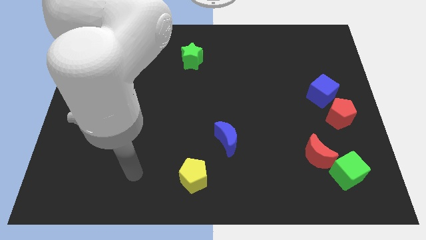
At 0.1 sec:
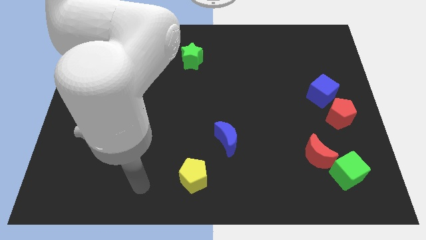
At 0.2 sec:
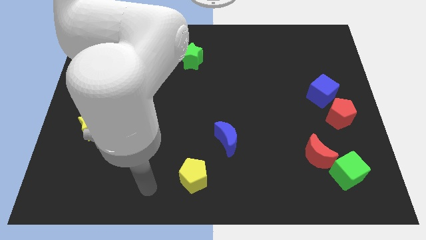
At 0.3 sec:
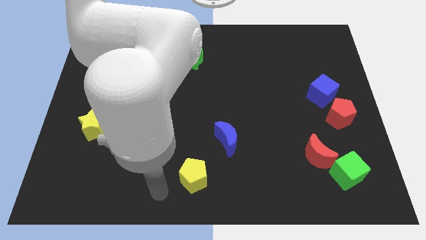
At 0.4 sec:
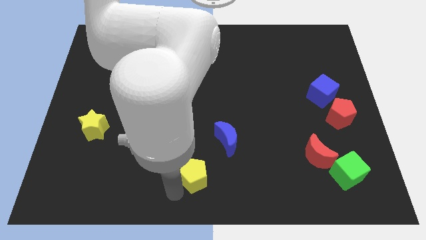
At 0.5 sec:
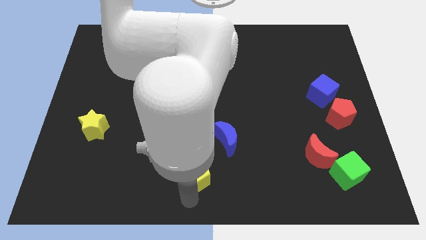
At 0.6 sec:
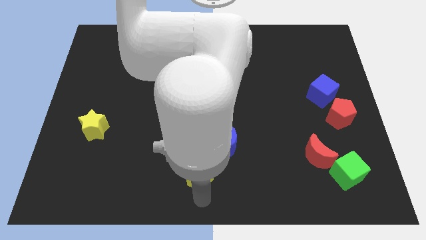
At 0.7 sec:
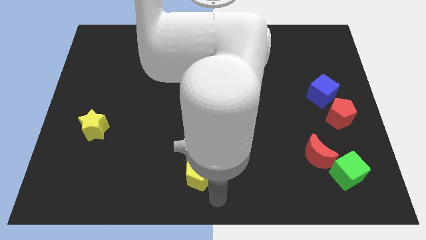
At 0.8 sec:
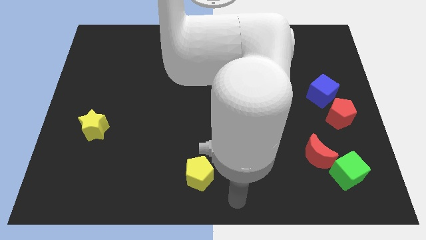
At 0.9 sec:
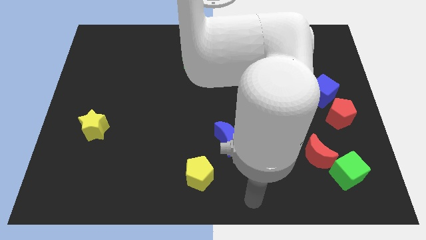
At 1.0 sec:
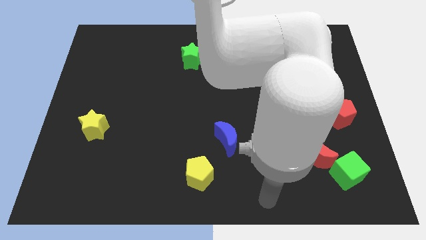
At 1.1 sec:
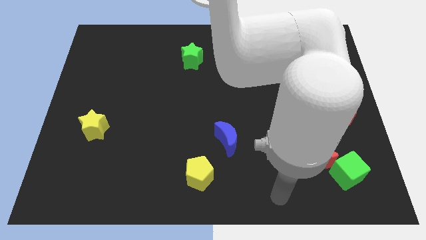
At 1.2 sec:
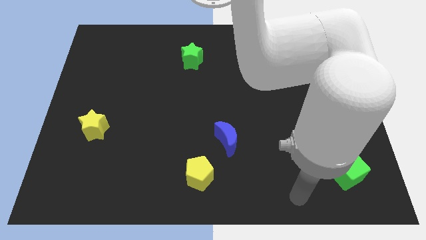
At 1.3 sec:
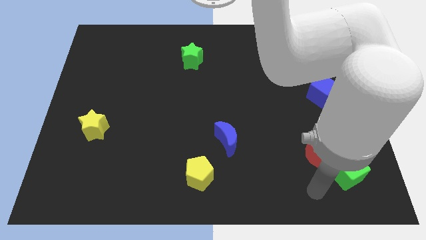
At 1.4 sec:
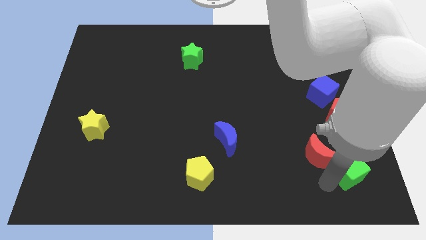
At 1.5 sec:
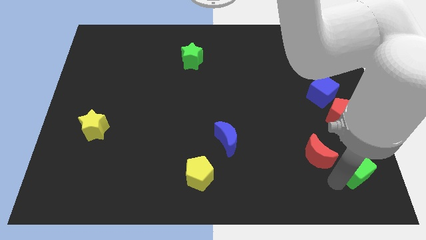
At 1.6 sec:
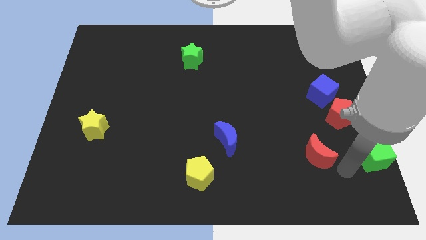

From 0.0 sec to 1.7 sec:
pull the red moon apart from the green cube

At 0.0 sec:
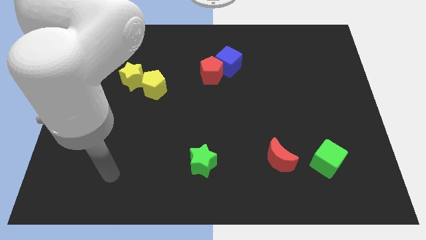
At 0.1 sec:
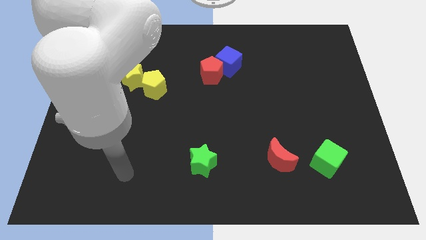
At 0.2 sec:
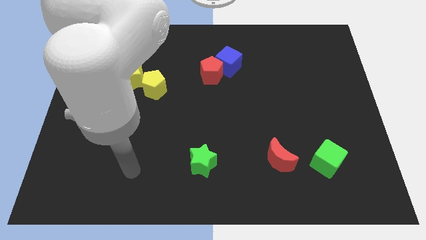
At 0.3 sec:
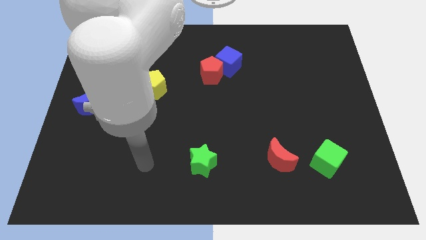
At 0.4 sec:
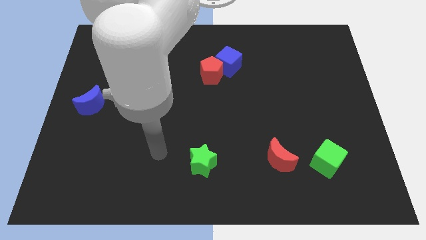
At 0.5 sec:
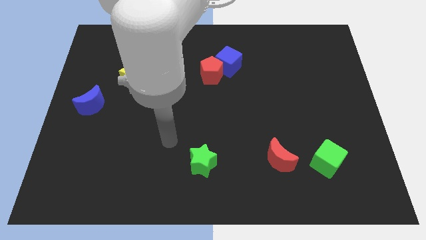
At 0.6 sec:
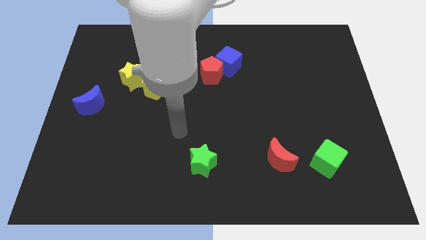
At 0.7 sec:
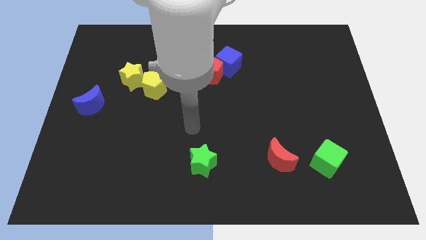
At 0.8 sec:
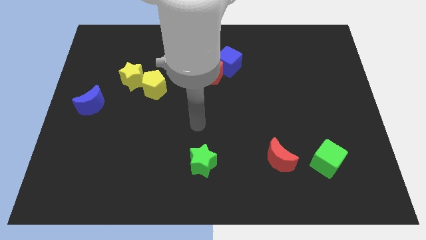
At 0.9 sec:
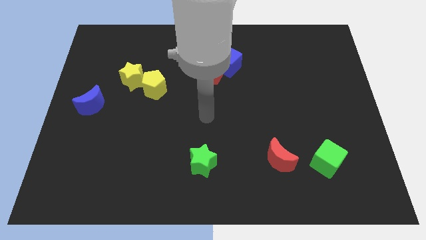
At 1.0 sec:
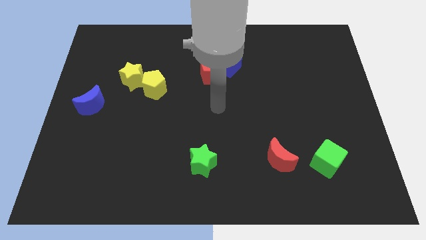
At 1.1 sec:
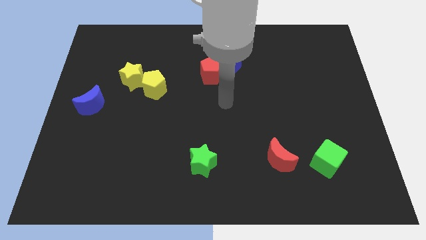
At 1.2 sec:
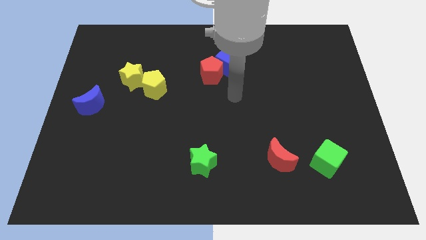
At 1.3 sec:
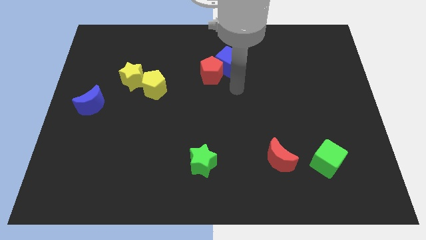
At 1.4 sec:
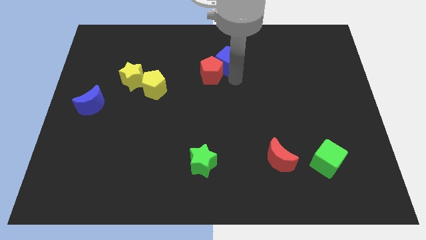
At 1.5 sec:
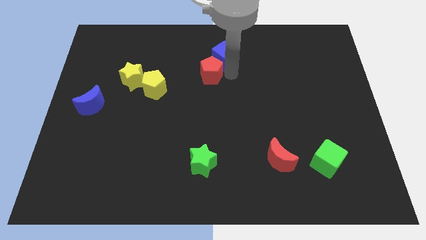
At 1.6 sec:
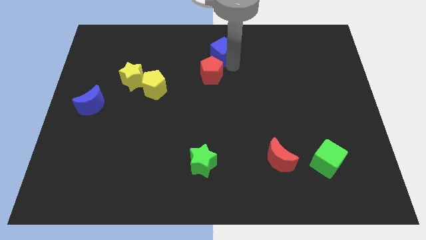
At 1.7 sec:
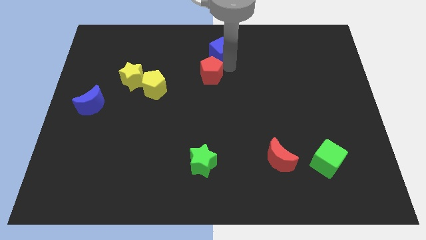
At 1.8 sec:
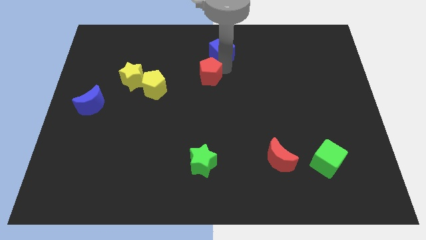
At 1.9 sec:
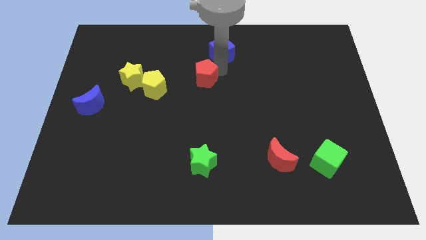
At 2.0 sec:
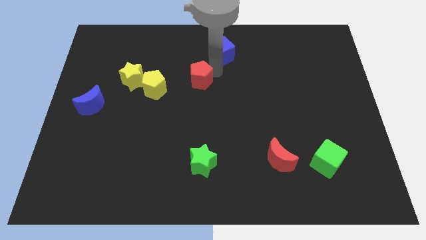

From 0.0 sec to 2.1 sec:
move the red pentagon away from the blue cube

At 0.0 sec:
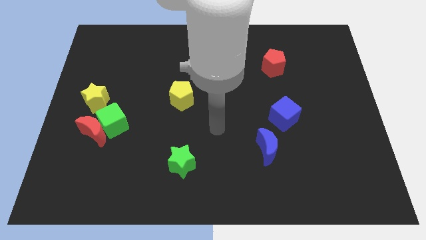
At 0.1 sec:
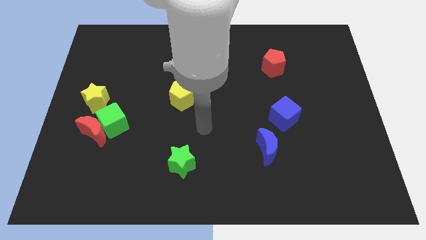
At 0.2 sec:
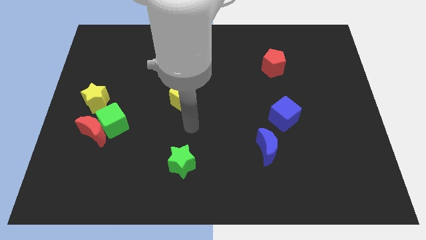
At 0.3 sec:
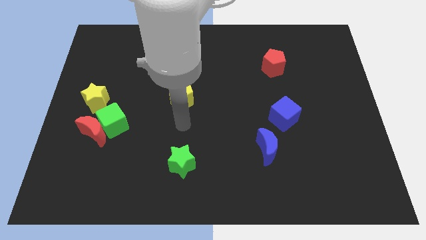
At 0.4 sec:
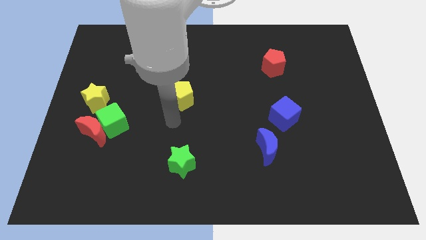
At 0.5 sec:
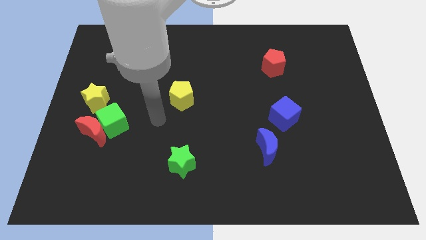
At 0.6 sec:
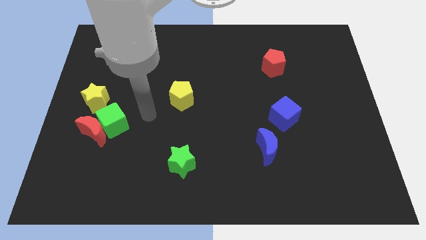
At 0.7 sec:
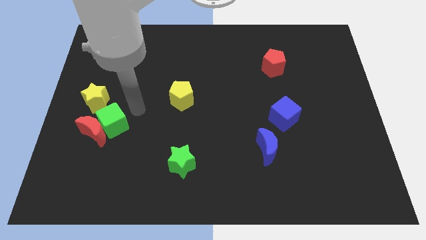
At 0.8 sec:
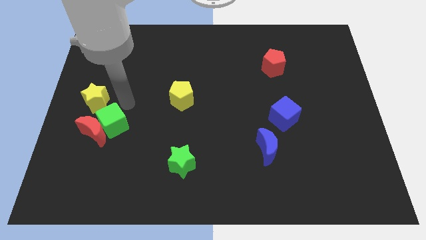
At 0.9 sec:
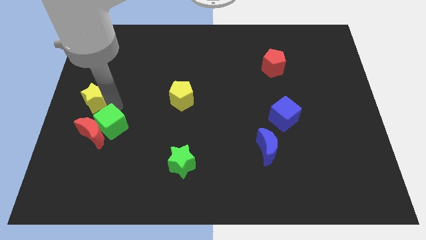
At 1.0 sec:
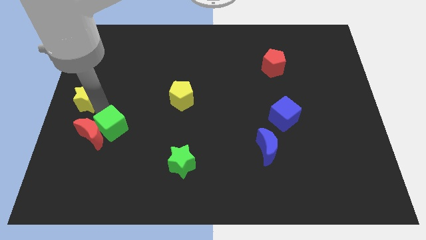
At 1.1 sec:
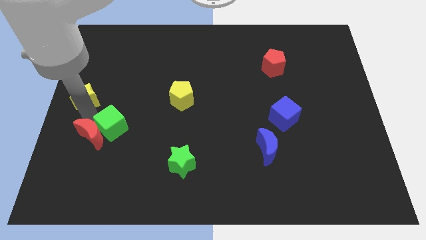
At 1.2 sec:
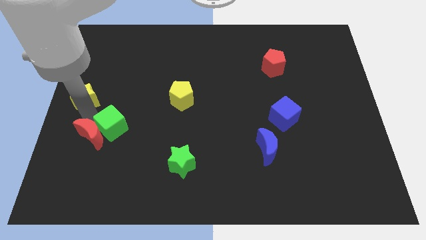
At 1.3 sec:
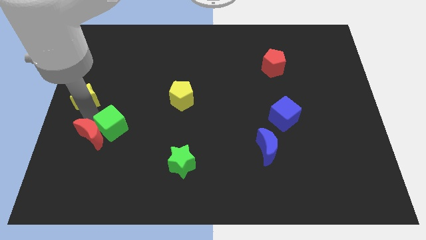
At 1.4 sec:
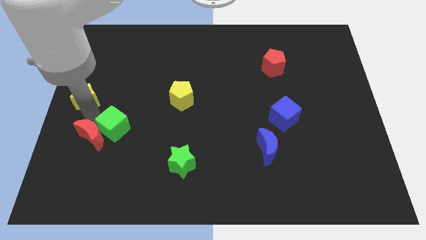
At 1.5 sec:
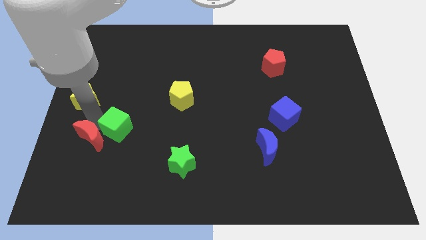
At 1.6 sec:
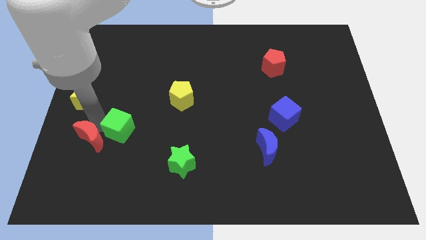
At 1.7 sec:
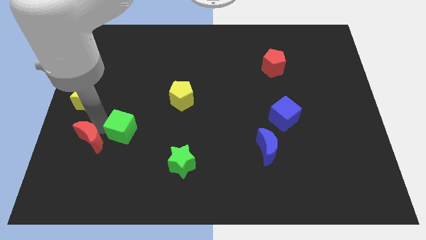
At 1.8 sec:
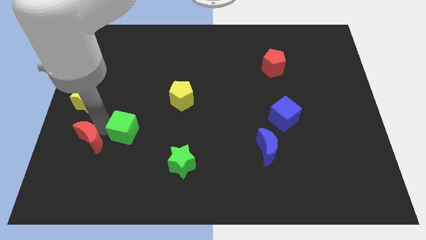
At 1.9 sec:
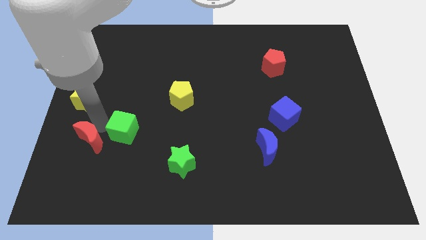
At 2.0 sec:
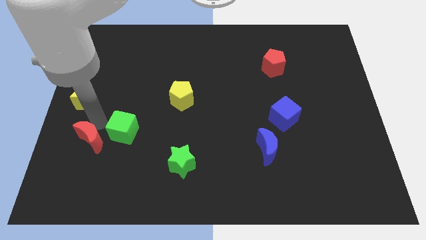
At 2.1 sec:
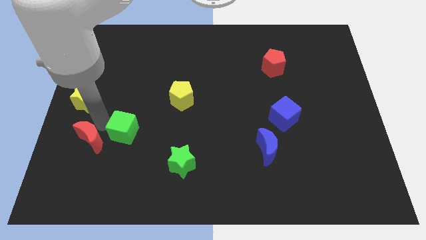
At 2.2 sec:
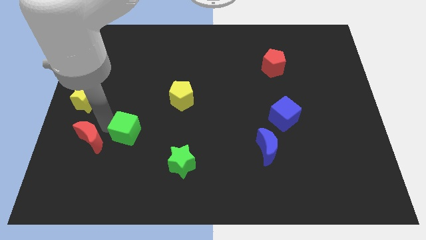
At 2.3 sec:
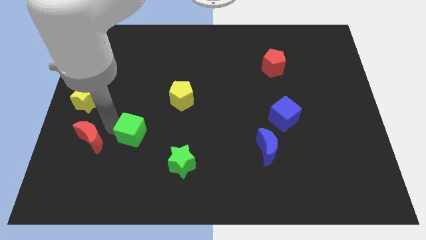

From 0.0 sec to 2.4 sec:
separate the green cube from the red moon and yellow star

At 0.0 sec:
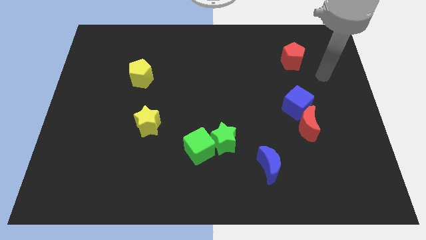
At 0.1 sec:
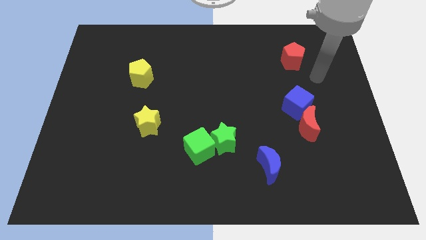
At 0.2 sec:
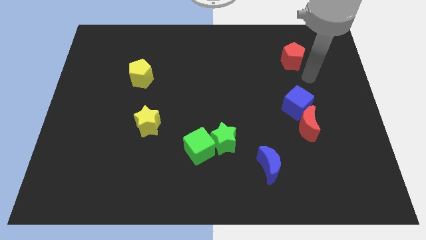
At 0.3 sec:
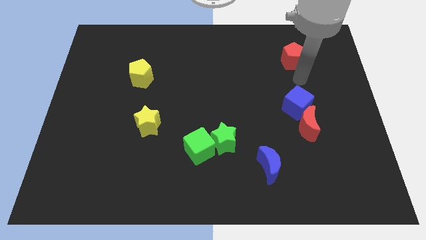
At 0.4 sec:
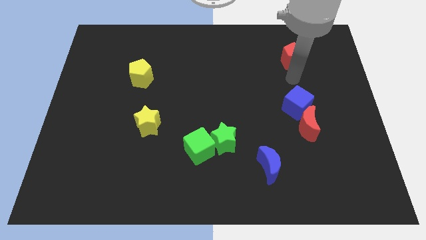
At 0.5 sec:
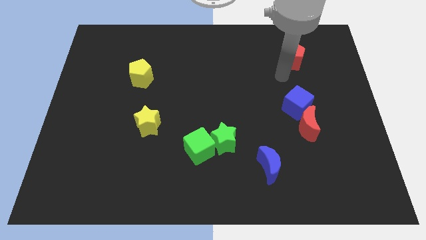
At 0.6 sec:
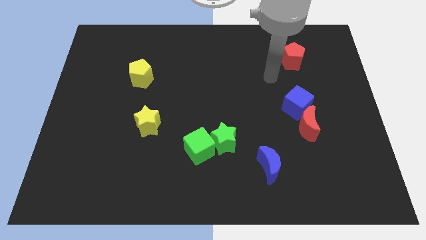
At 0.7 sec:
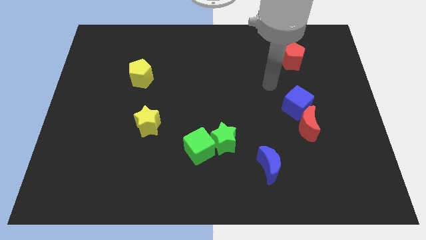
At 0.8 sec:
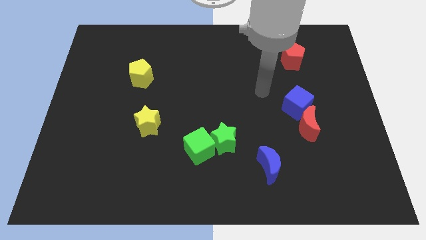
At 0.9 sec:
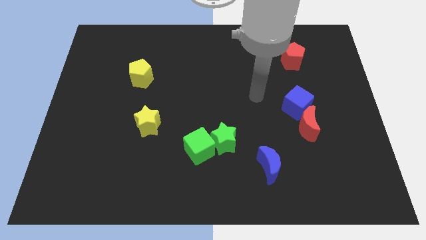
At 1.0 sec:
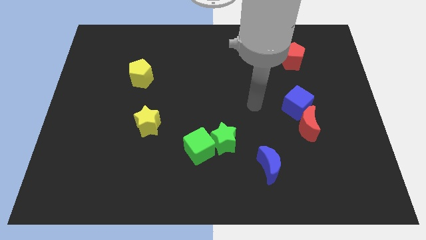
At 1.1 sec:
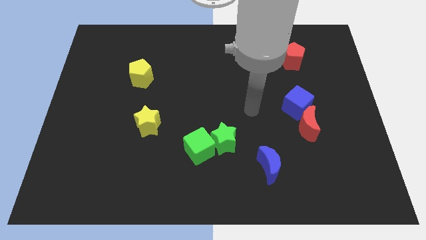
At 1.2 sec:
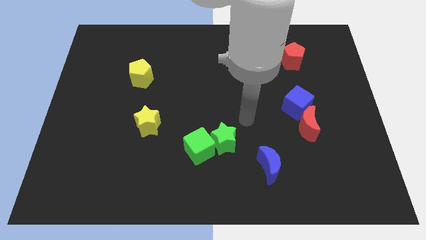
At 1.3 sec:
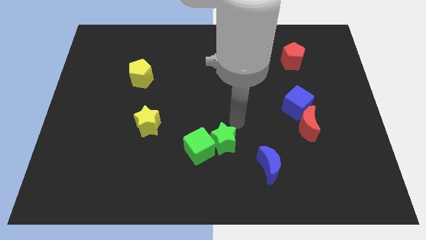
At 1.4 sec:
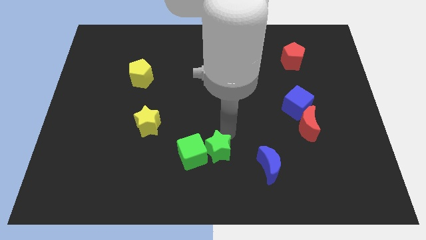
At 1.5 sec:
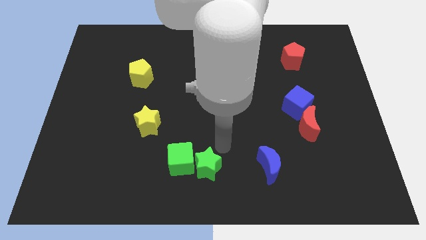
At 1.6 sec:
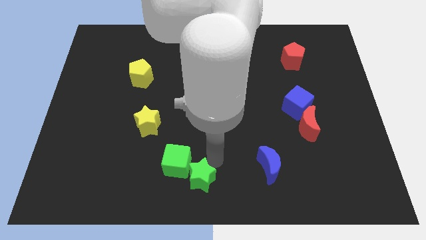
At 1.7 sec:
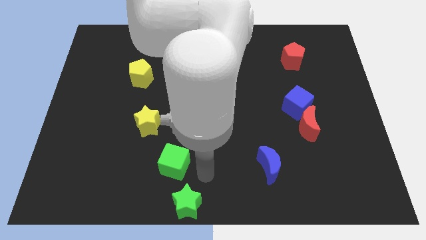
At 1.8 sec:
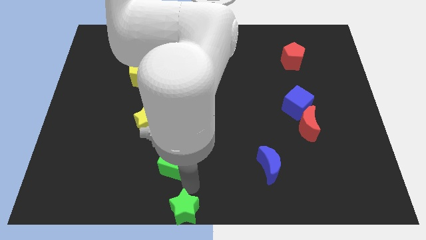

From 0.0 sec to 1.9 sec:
move the green cube away from the green star

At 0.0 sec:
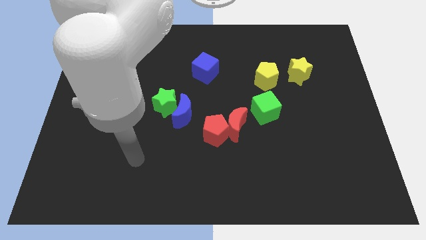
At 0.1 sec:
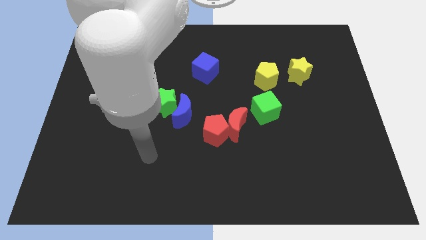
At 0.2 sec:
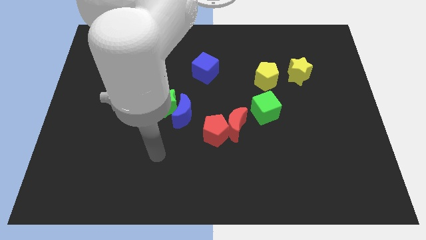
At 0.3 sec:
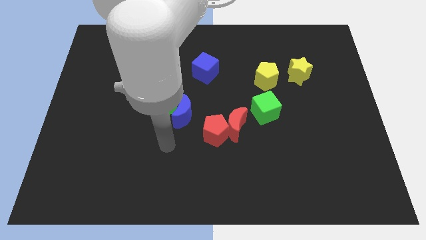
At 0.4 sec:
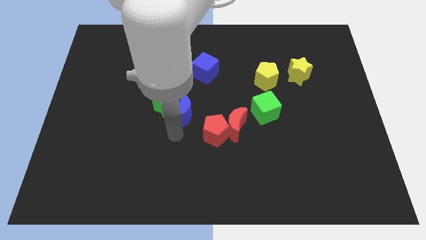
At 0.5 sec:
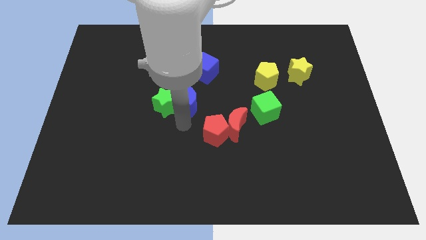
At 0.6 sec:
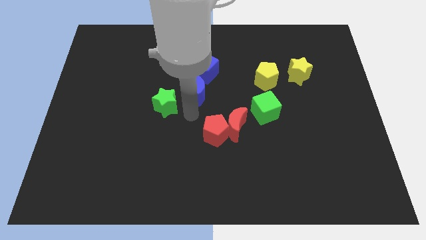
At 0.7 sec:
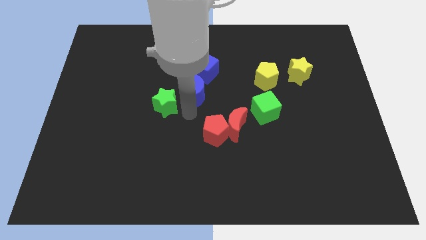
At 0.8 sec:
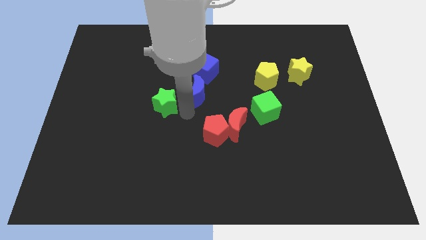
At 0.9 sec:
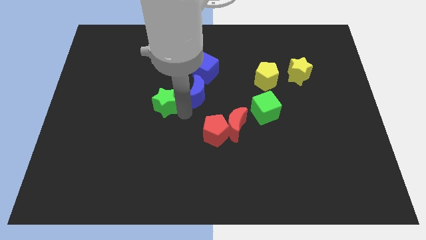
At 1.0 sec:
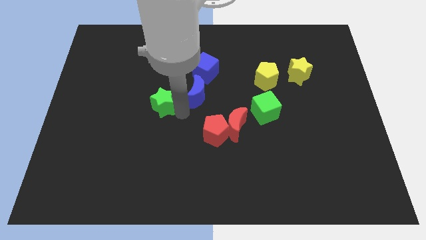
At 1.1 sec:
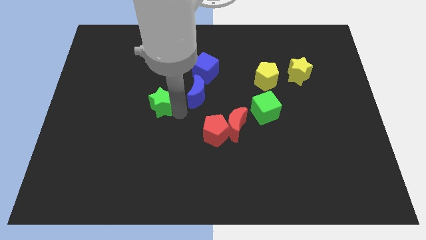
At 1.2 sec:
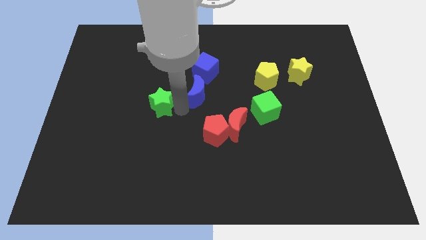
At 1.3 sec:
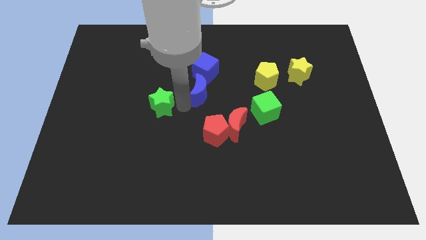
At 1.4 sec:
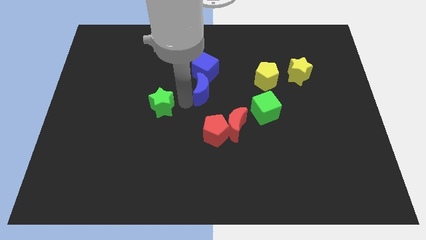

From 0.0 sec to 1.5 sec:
separate the green star from the blue moon
